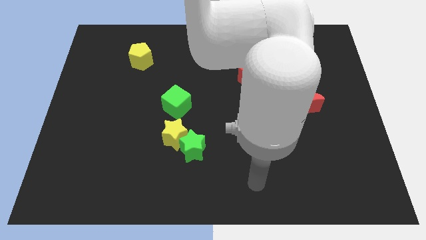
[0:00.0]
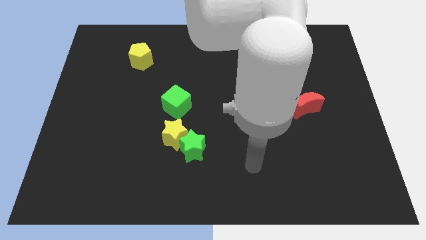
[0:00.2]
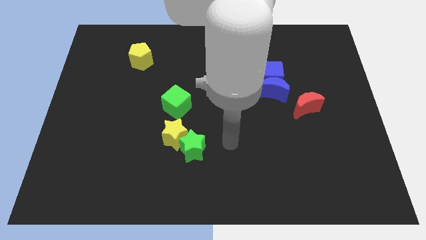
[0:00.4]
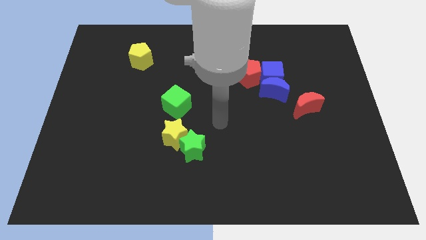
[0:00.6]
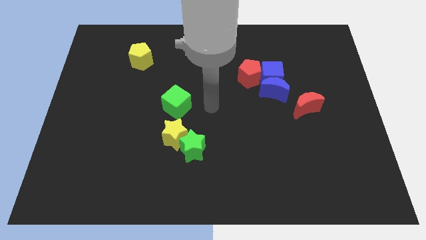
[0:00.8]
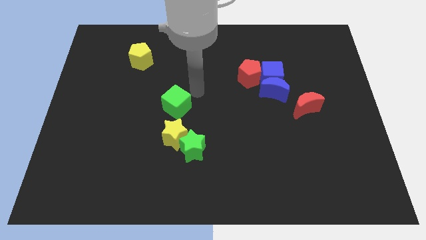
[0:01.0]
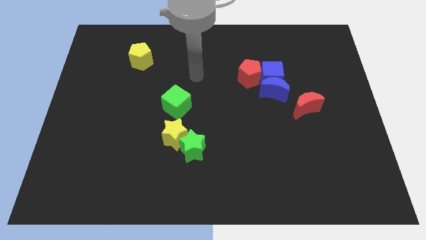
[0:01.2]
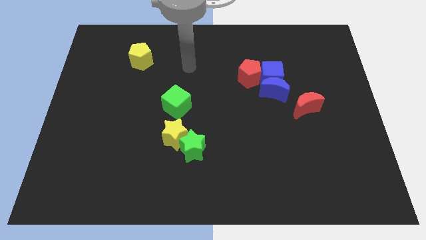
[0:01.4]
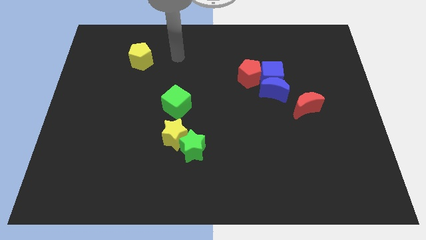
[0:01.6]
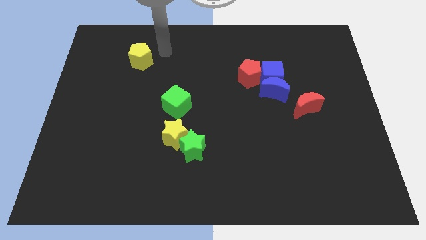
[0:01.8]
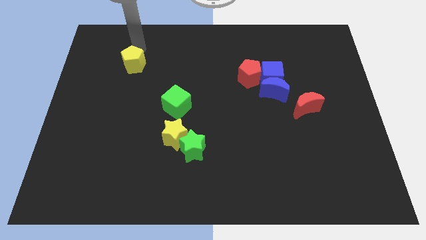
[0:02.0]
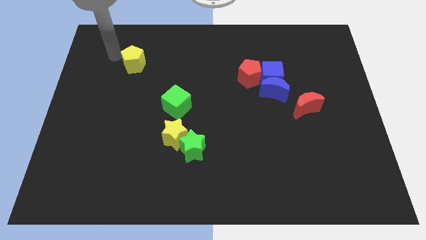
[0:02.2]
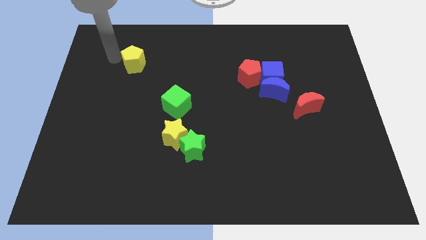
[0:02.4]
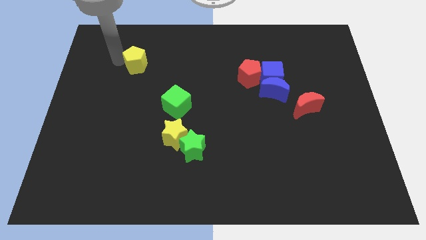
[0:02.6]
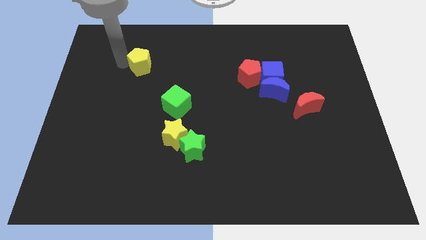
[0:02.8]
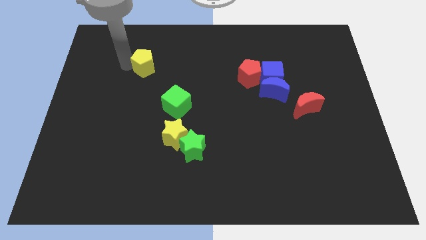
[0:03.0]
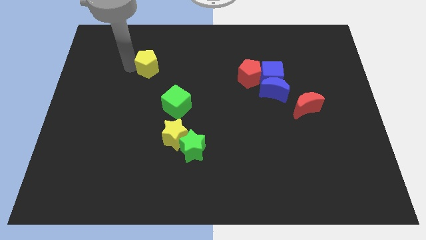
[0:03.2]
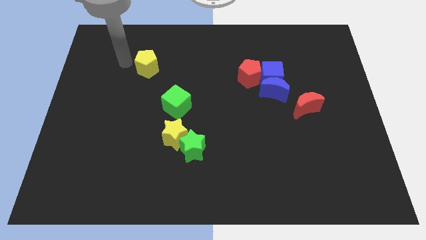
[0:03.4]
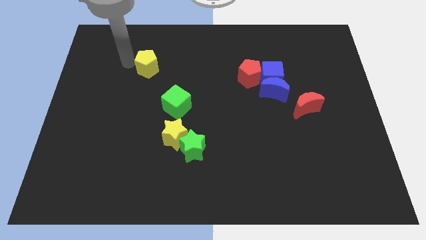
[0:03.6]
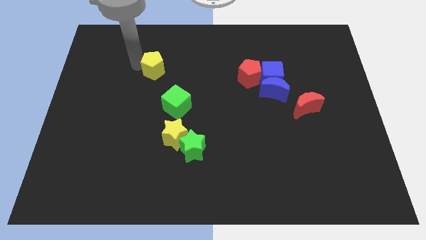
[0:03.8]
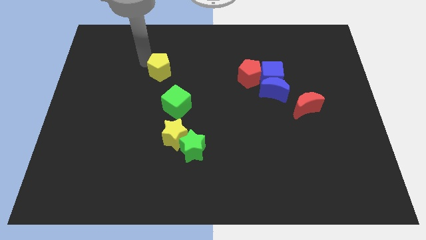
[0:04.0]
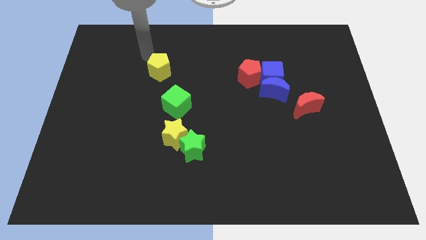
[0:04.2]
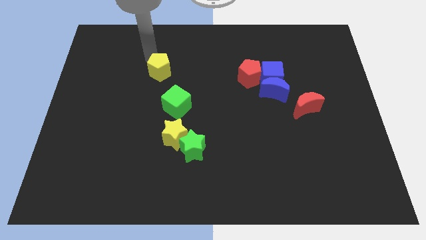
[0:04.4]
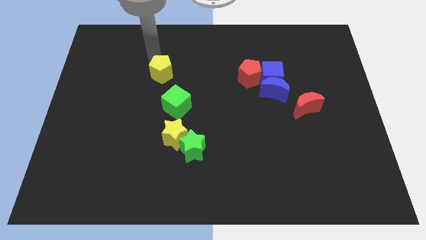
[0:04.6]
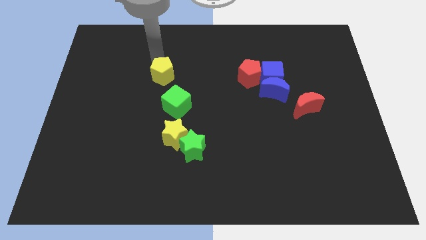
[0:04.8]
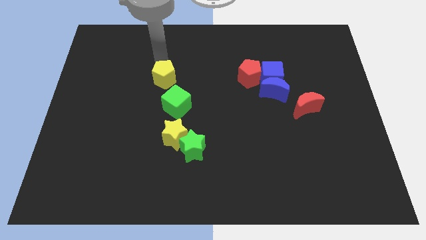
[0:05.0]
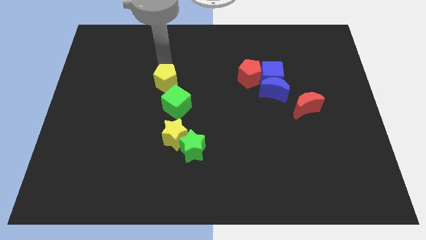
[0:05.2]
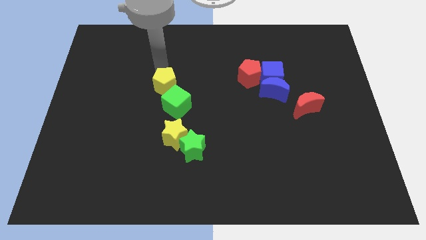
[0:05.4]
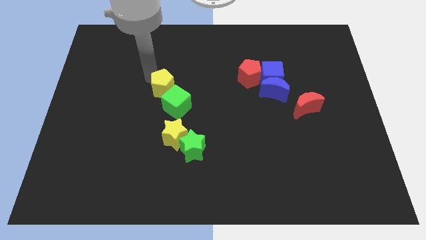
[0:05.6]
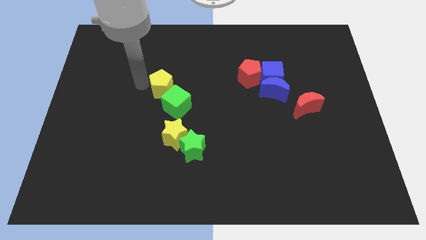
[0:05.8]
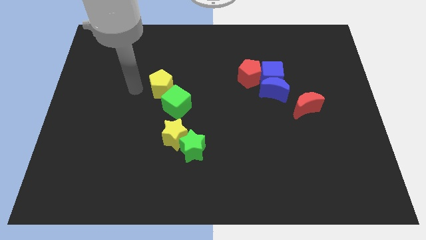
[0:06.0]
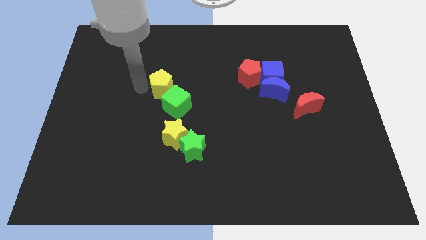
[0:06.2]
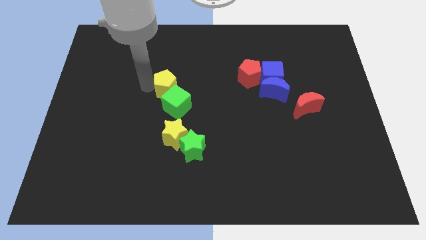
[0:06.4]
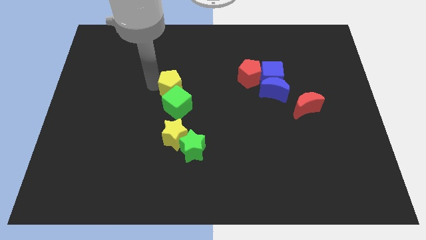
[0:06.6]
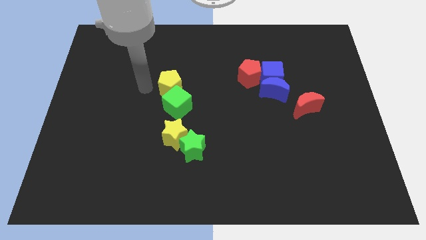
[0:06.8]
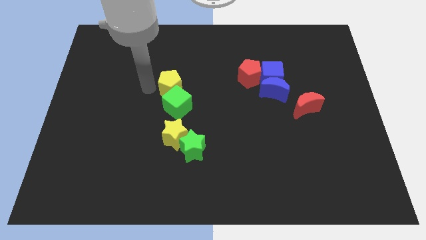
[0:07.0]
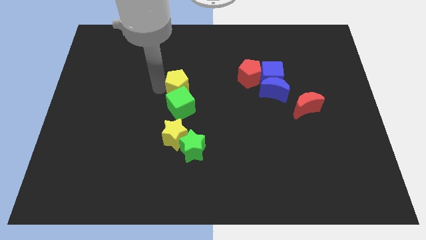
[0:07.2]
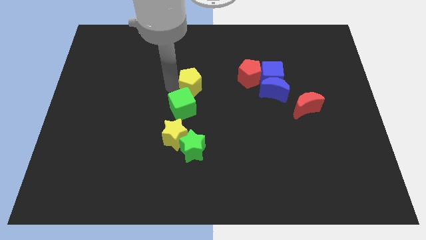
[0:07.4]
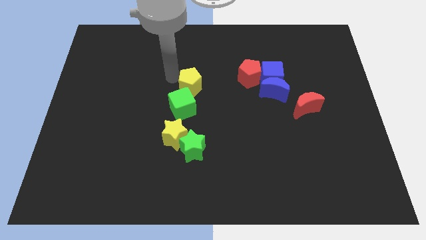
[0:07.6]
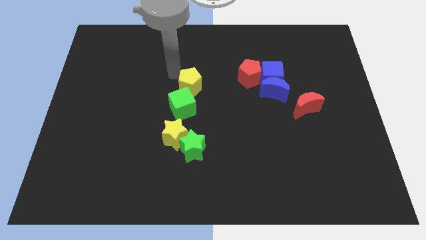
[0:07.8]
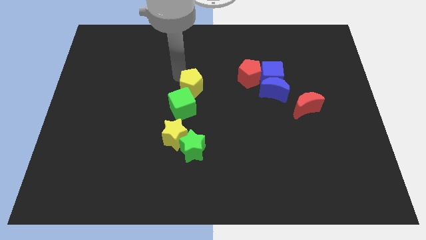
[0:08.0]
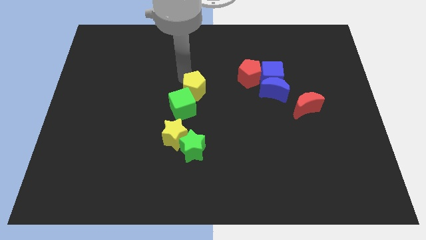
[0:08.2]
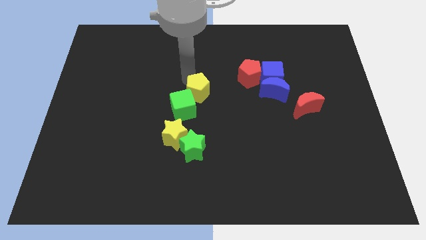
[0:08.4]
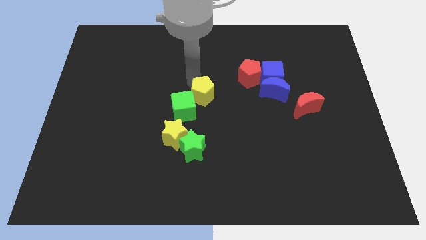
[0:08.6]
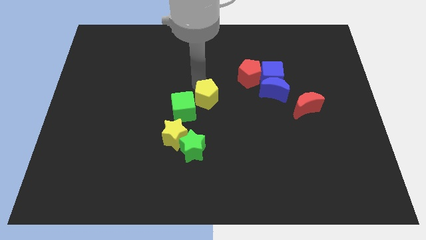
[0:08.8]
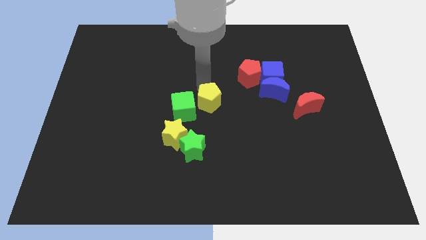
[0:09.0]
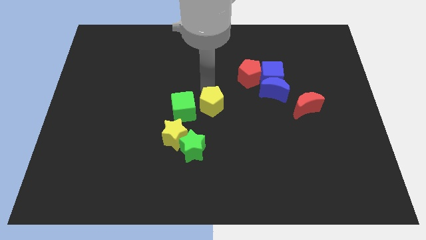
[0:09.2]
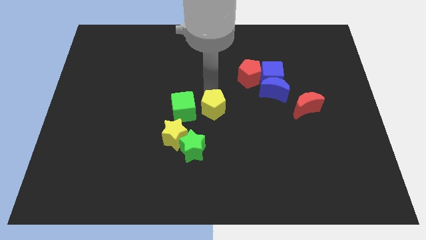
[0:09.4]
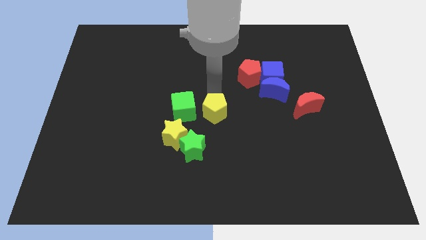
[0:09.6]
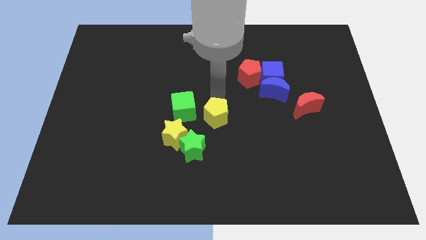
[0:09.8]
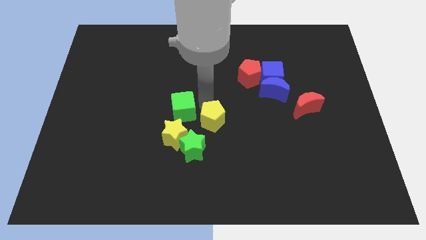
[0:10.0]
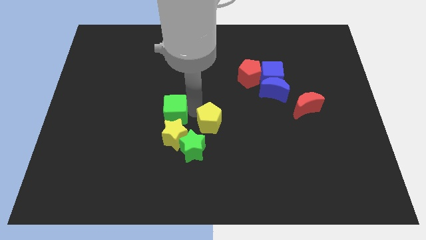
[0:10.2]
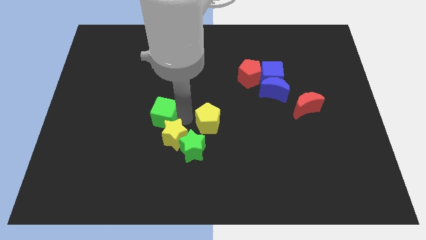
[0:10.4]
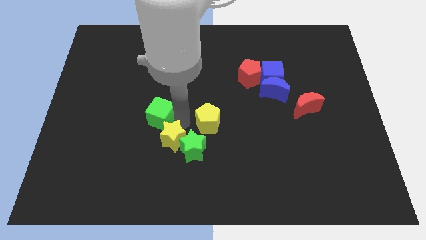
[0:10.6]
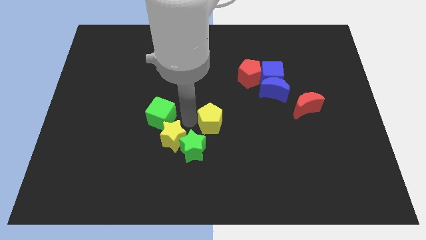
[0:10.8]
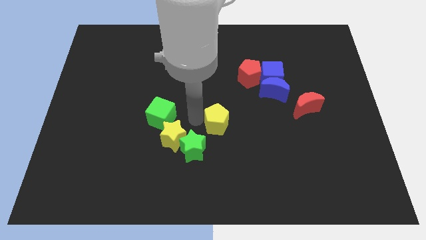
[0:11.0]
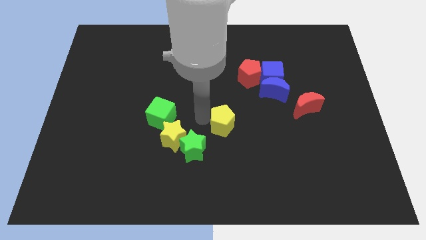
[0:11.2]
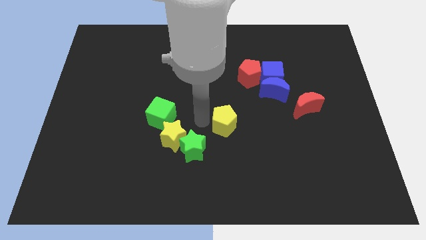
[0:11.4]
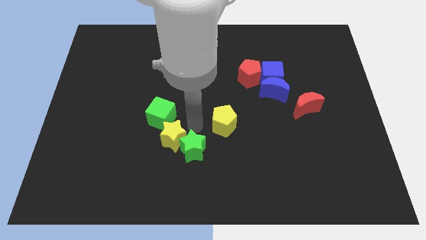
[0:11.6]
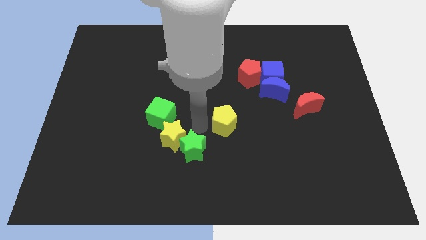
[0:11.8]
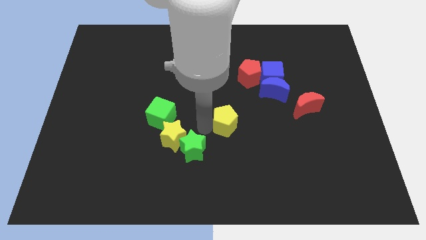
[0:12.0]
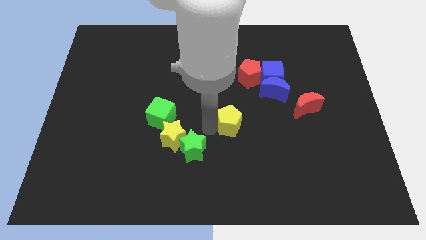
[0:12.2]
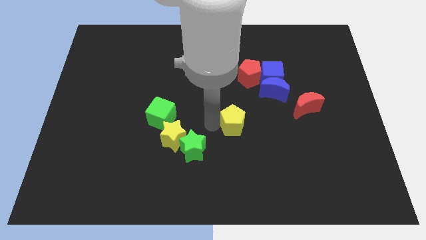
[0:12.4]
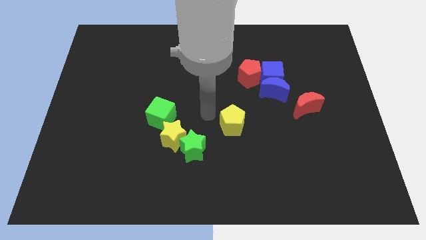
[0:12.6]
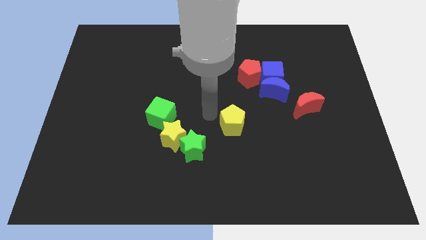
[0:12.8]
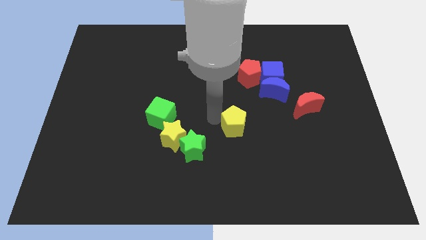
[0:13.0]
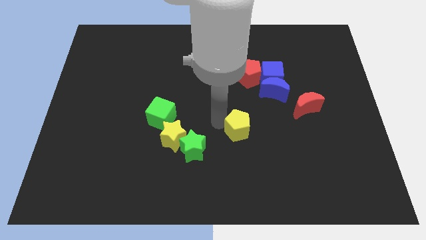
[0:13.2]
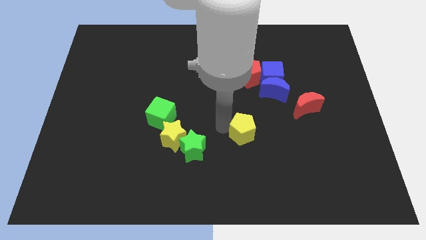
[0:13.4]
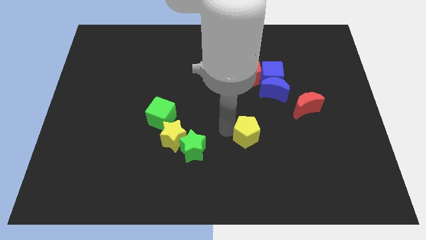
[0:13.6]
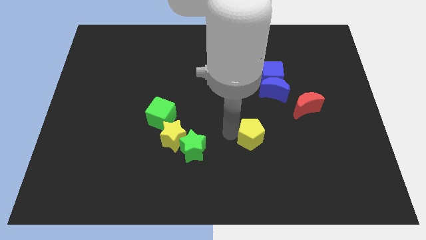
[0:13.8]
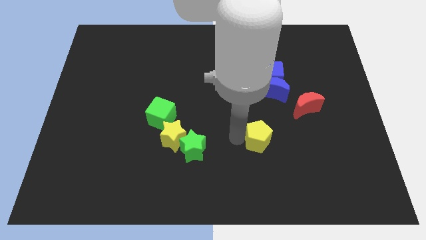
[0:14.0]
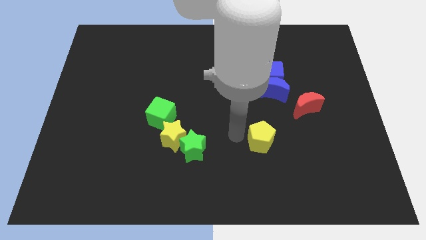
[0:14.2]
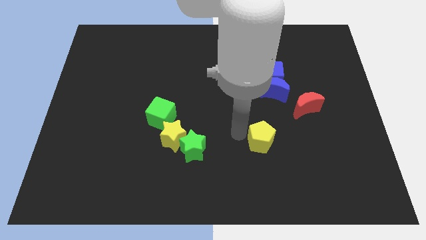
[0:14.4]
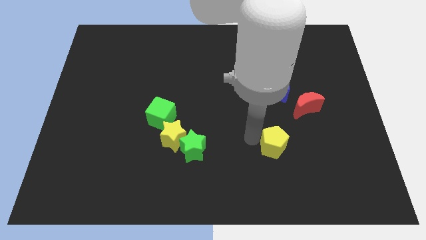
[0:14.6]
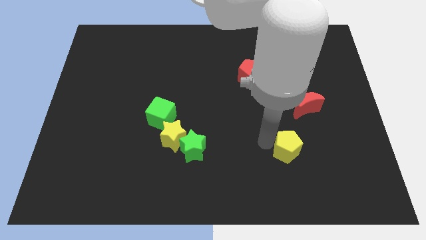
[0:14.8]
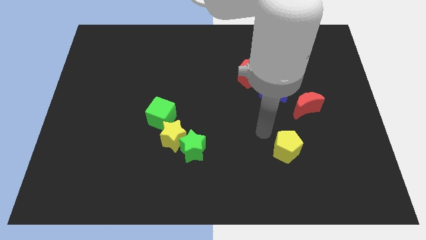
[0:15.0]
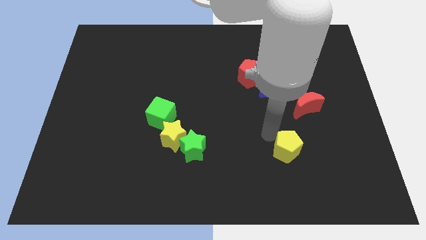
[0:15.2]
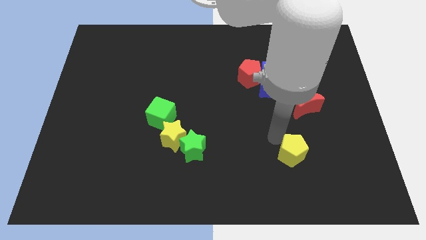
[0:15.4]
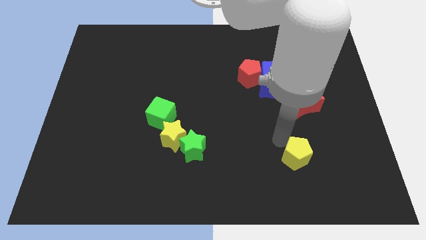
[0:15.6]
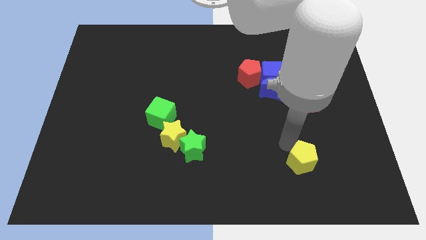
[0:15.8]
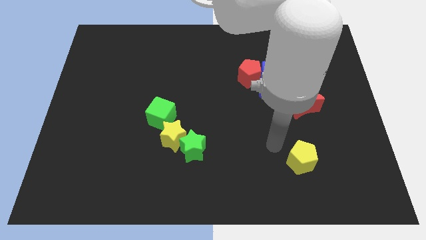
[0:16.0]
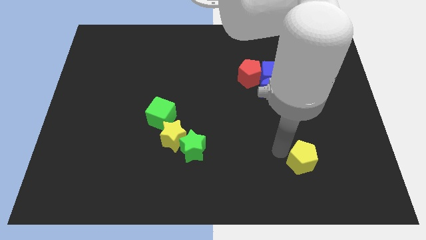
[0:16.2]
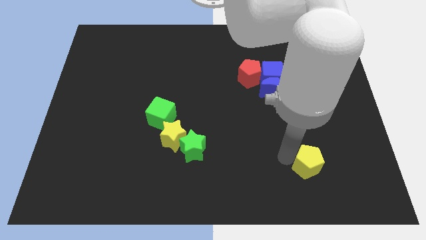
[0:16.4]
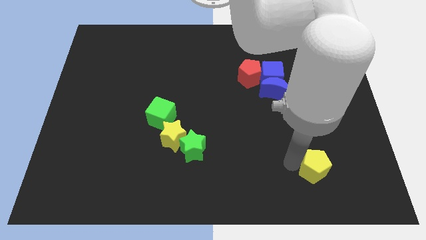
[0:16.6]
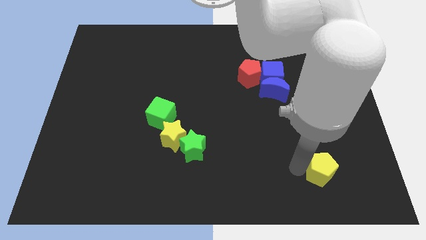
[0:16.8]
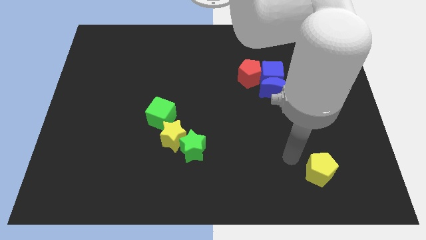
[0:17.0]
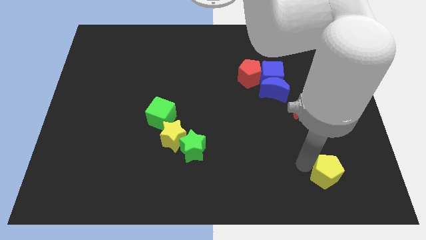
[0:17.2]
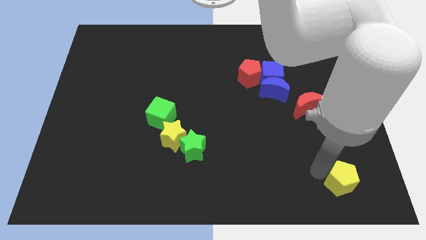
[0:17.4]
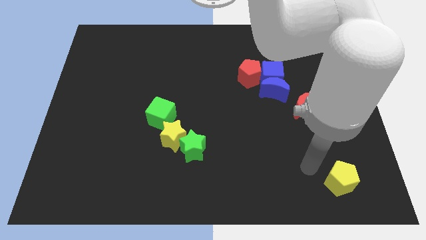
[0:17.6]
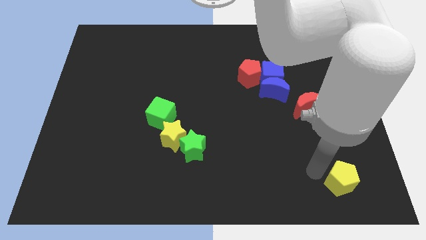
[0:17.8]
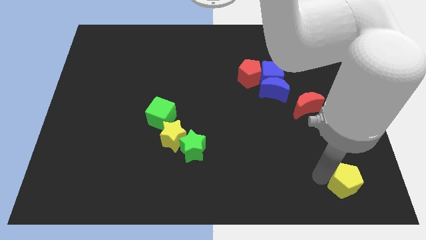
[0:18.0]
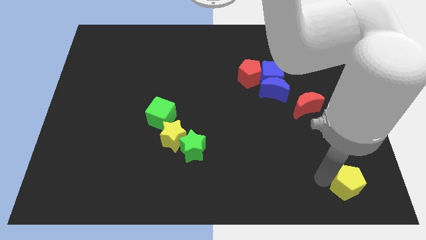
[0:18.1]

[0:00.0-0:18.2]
move the yellow pentagon to the bottom right
